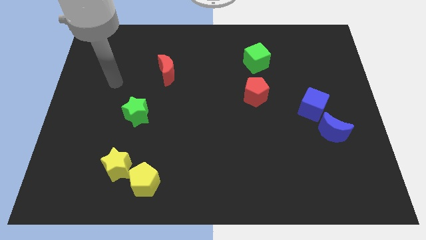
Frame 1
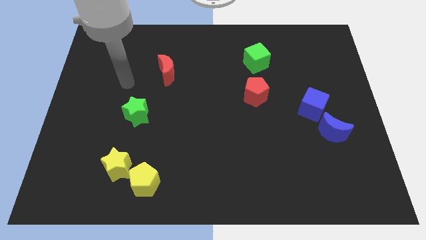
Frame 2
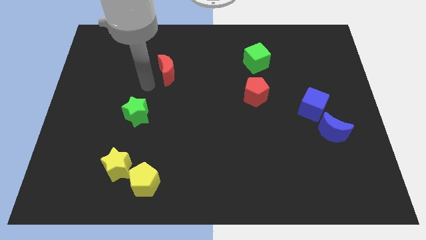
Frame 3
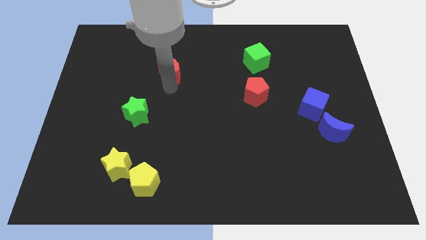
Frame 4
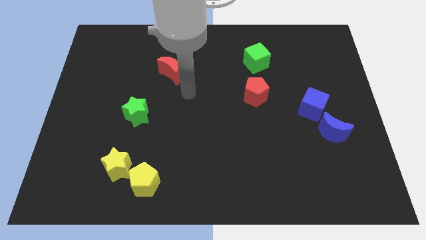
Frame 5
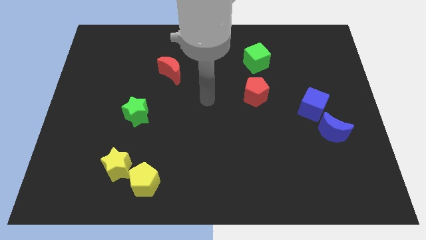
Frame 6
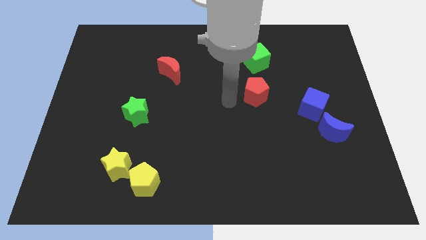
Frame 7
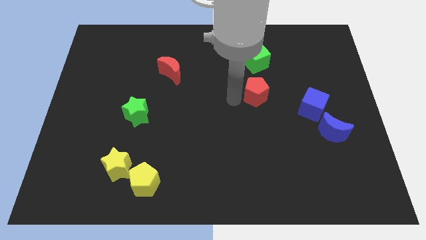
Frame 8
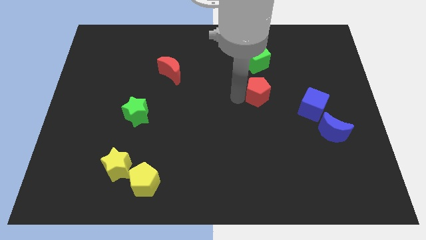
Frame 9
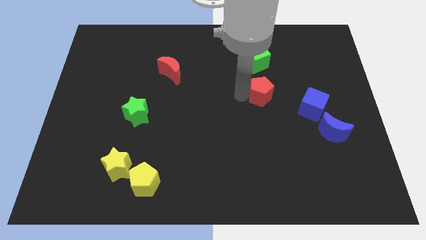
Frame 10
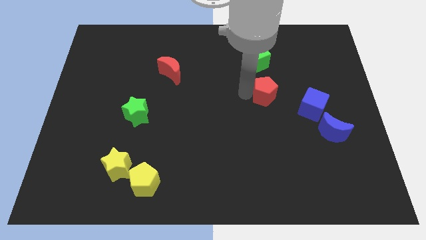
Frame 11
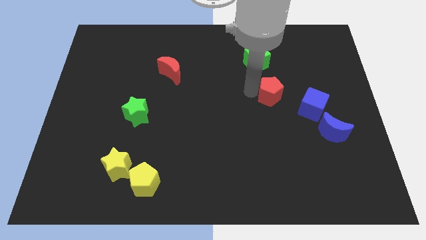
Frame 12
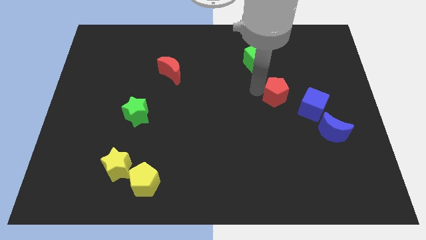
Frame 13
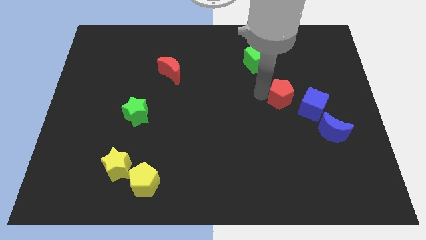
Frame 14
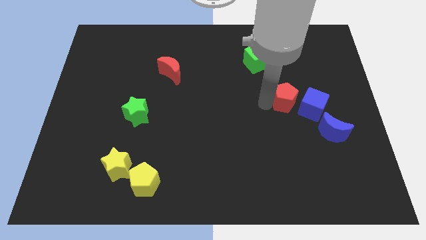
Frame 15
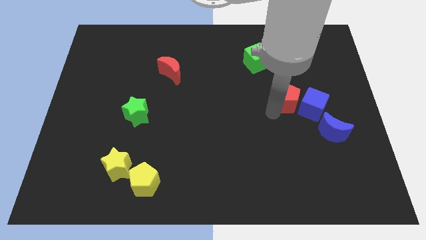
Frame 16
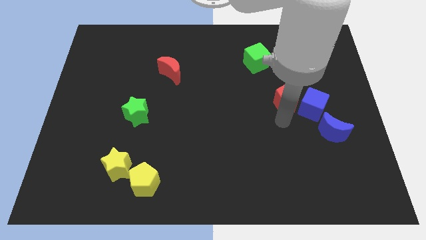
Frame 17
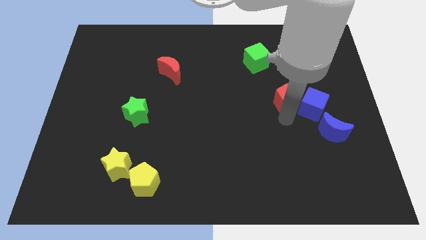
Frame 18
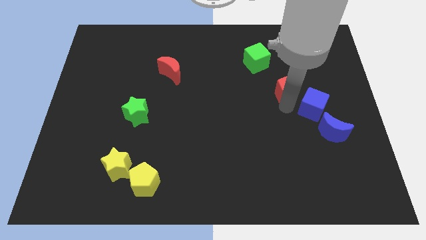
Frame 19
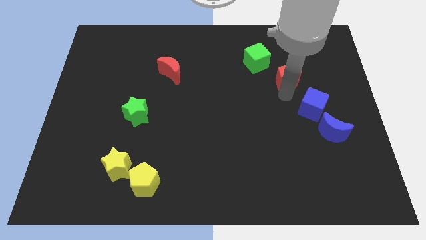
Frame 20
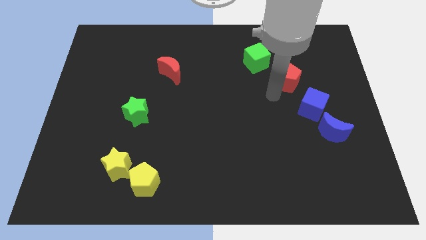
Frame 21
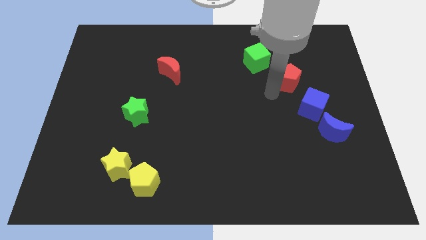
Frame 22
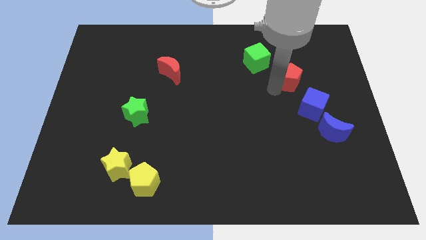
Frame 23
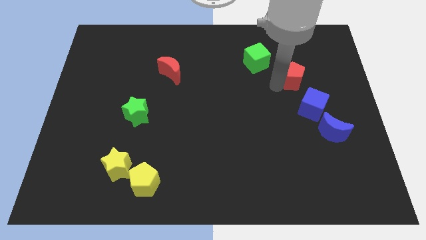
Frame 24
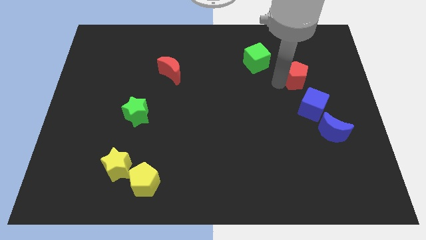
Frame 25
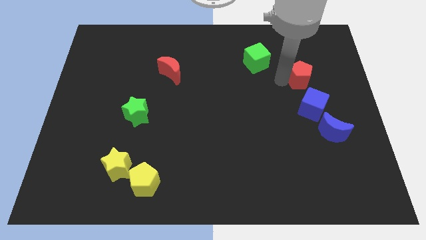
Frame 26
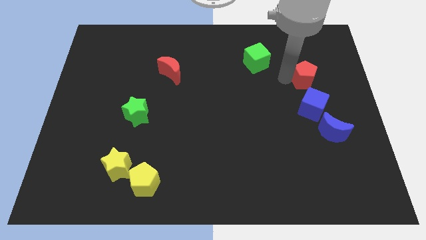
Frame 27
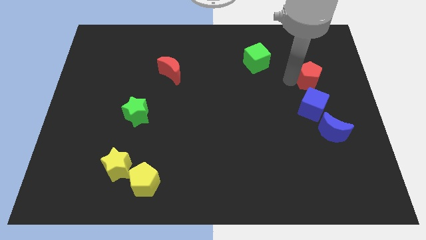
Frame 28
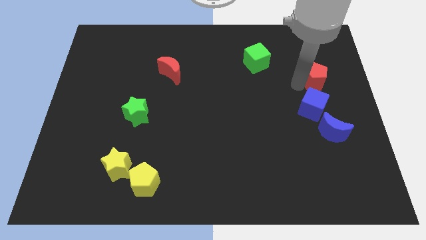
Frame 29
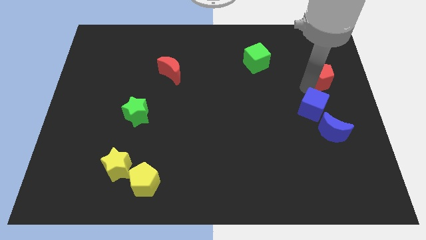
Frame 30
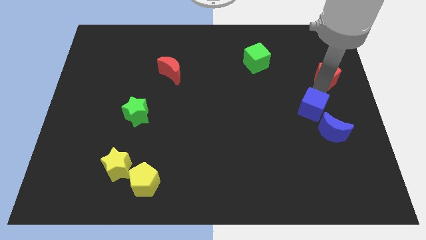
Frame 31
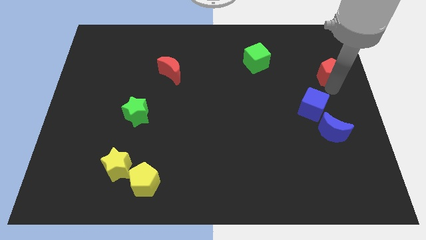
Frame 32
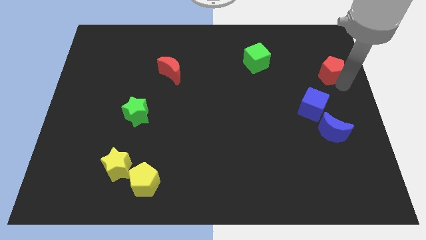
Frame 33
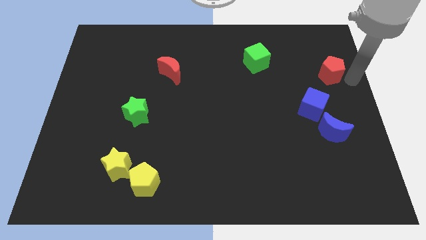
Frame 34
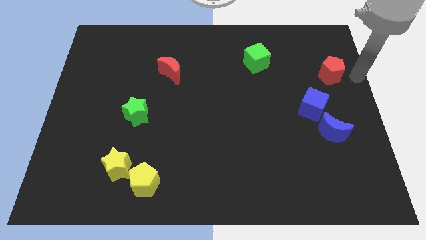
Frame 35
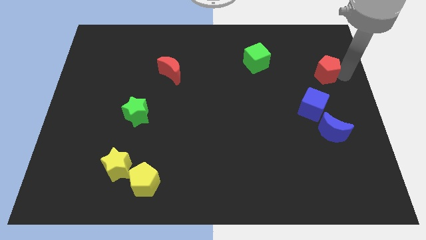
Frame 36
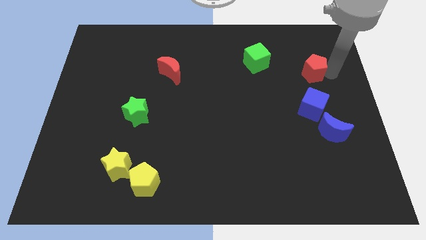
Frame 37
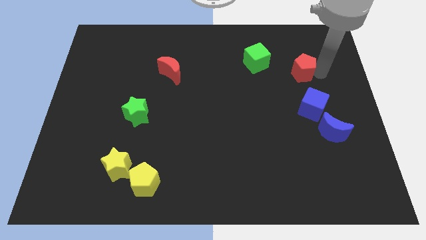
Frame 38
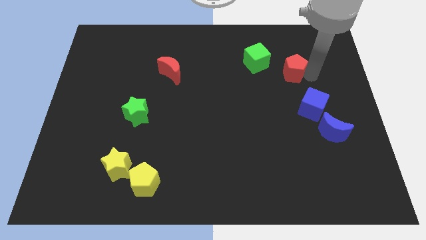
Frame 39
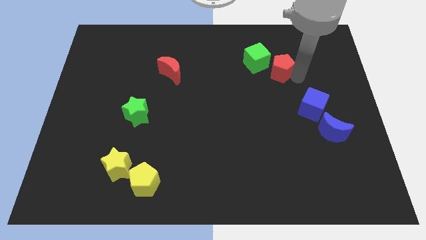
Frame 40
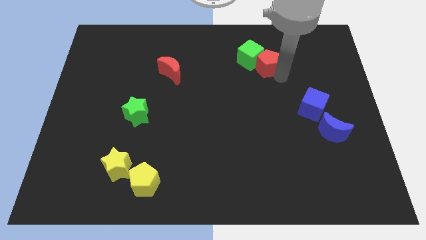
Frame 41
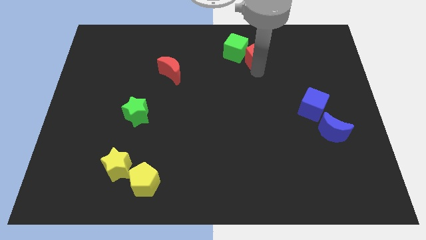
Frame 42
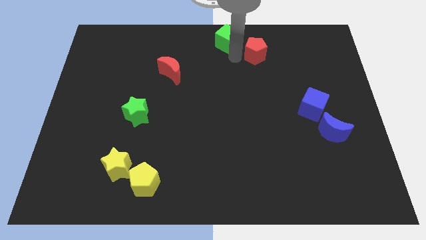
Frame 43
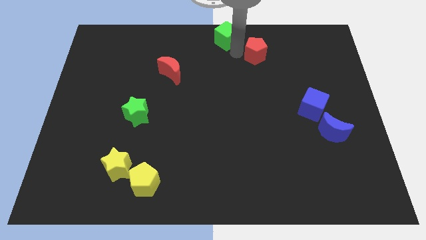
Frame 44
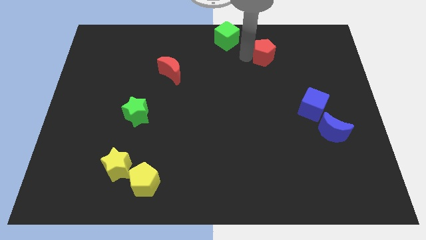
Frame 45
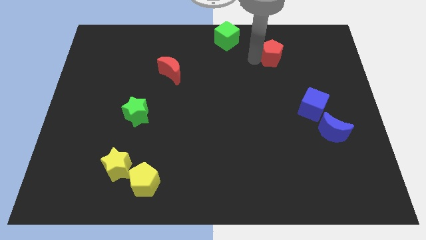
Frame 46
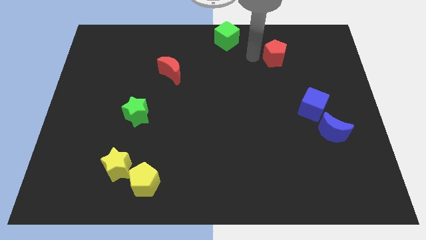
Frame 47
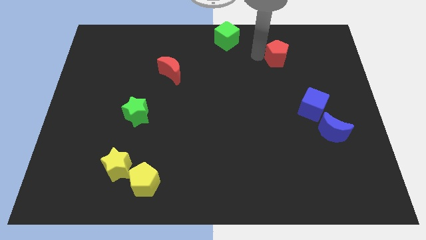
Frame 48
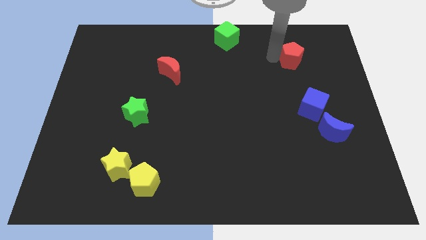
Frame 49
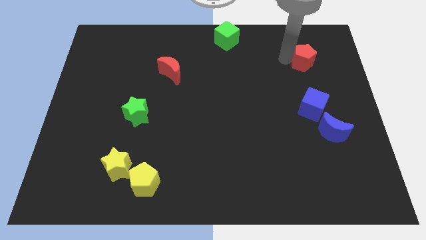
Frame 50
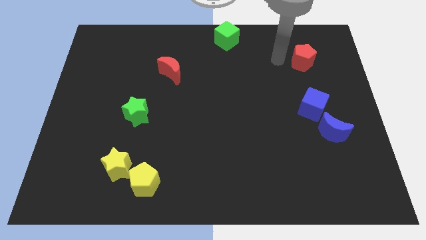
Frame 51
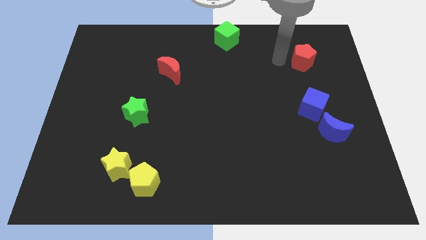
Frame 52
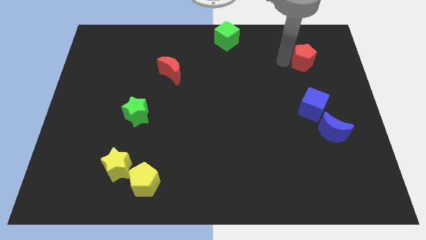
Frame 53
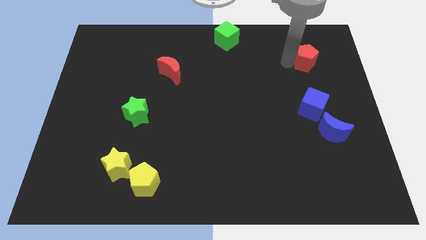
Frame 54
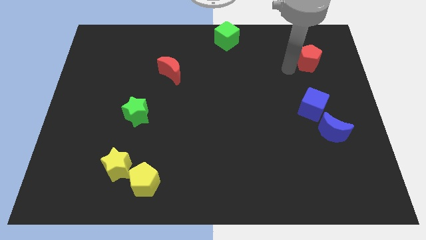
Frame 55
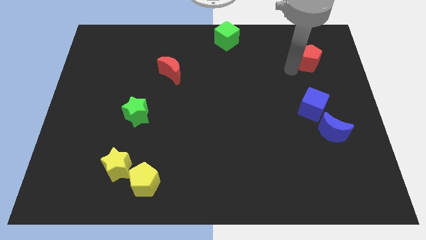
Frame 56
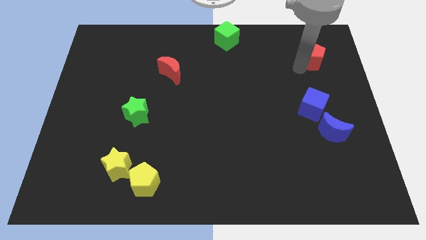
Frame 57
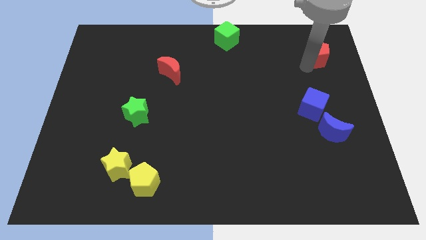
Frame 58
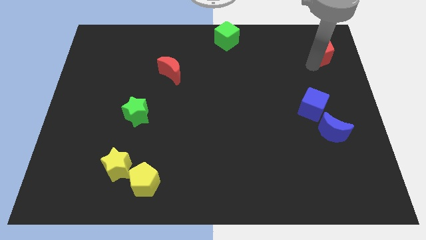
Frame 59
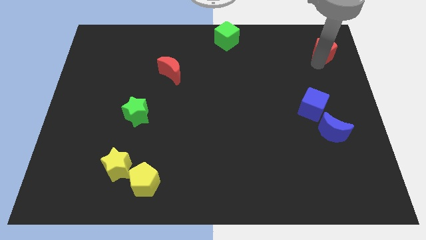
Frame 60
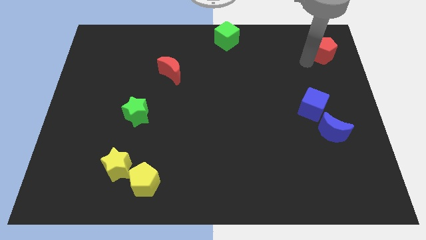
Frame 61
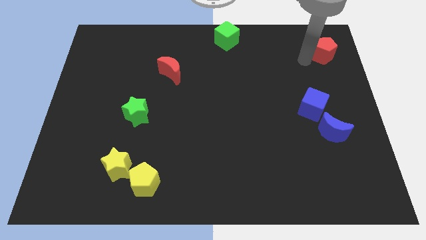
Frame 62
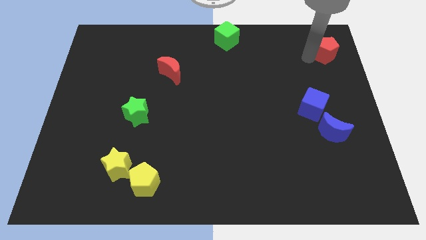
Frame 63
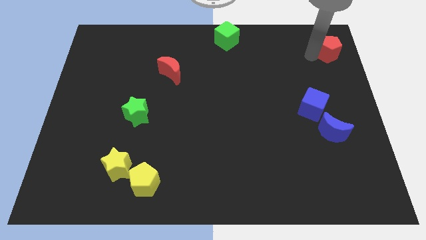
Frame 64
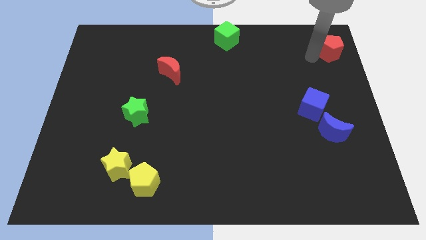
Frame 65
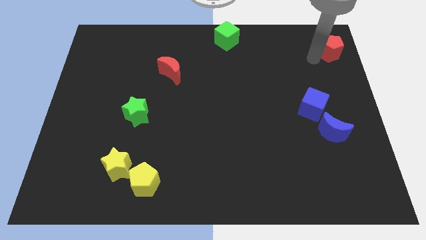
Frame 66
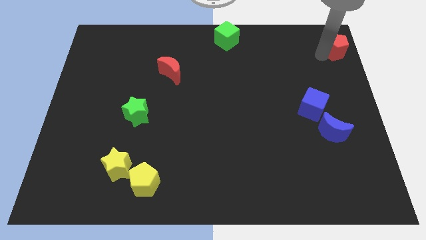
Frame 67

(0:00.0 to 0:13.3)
put the red pentagon to the upper right corner
